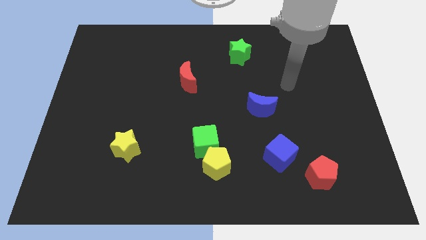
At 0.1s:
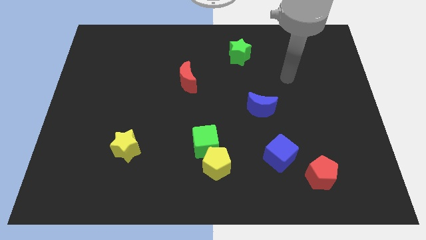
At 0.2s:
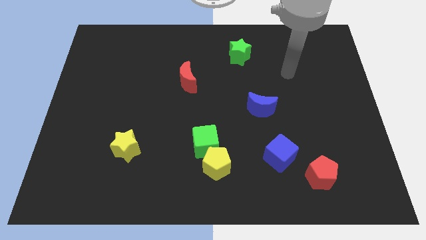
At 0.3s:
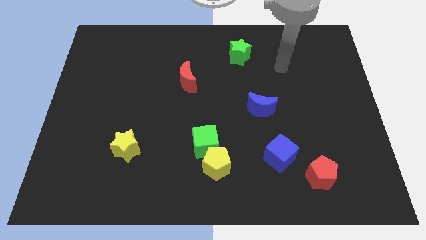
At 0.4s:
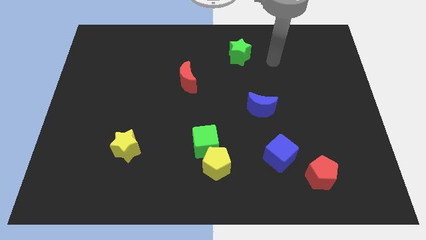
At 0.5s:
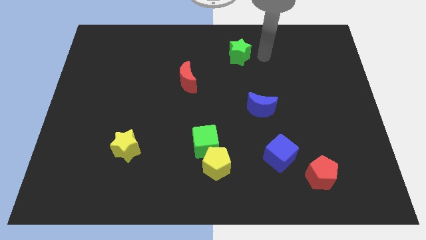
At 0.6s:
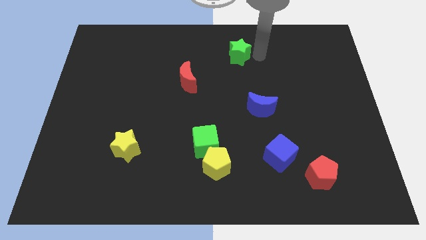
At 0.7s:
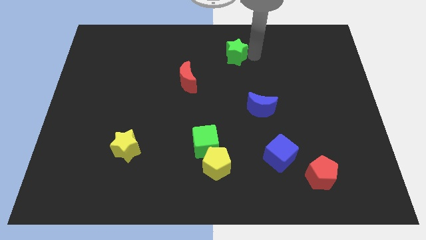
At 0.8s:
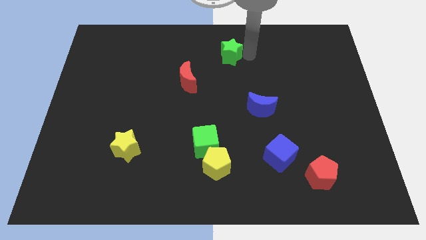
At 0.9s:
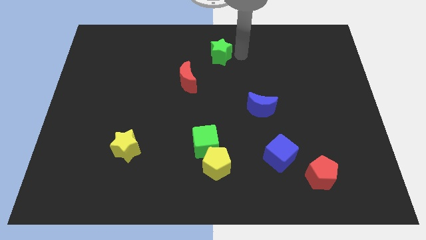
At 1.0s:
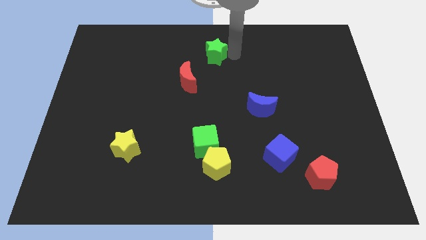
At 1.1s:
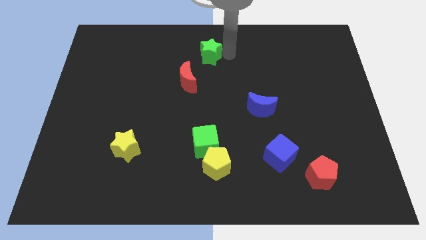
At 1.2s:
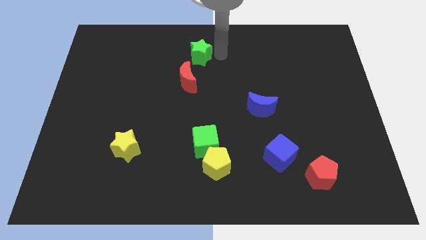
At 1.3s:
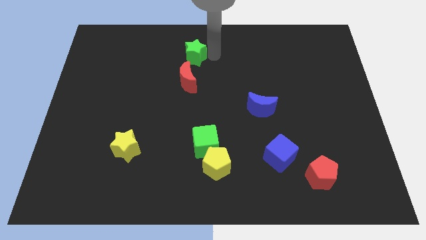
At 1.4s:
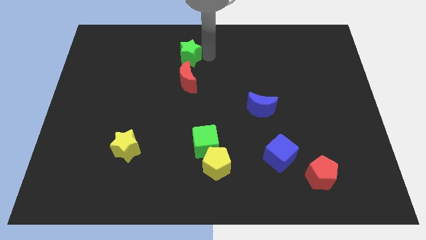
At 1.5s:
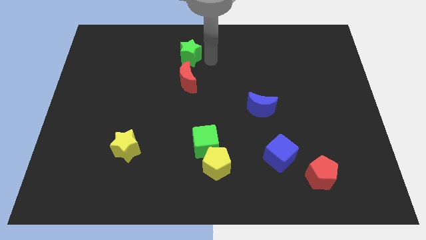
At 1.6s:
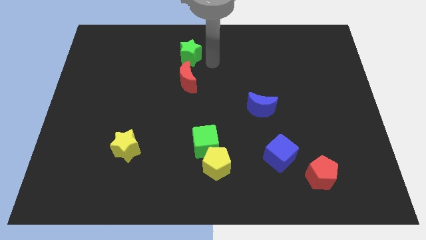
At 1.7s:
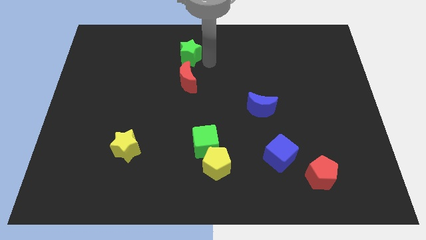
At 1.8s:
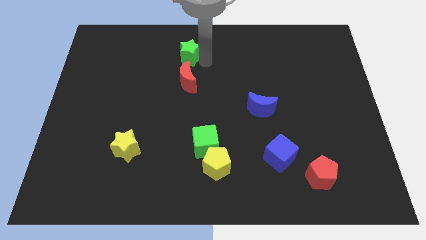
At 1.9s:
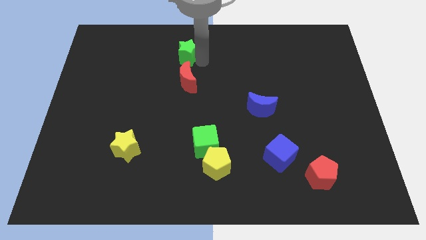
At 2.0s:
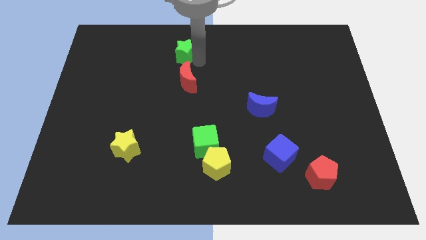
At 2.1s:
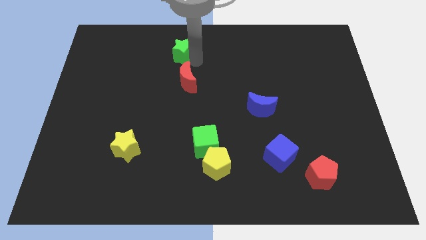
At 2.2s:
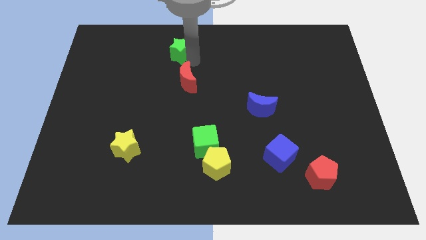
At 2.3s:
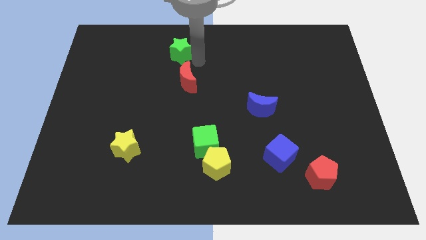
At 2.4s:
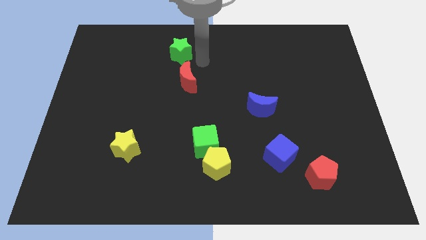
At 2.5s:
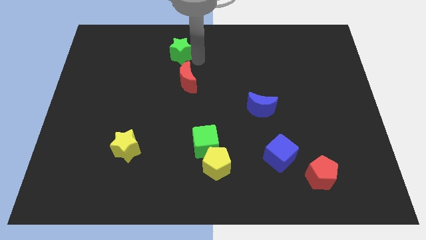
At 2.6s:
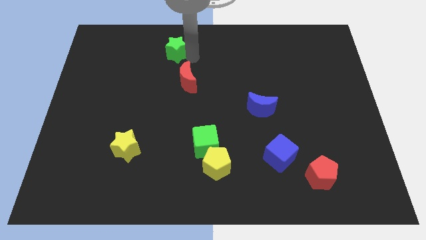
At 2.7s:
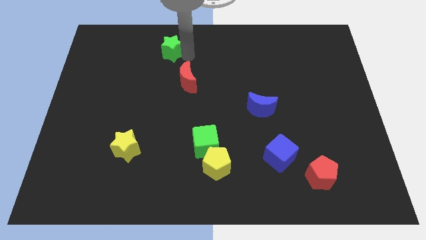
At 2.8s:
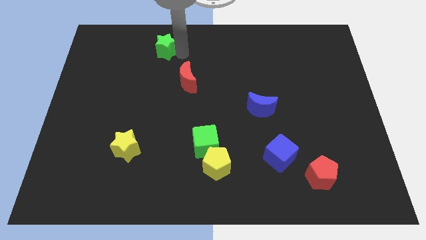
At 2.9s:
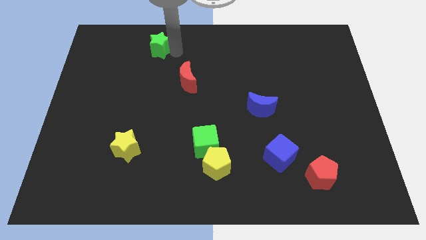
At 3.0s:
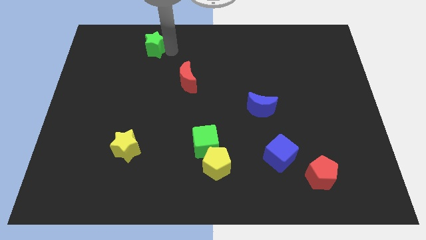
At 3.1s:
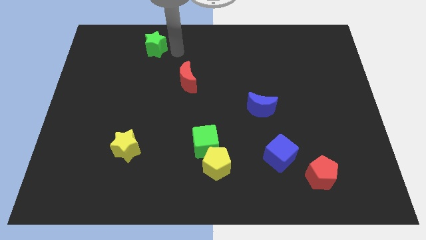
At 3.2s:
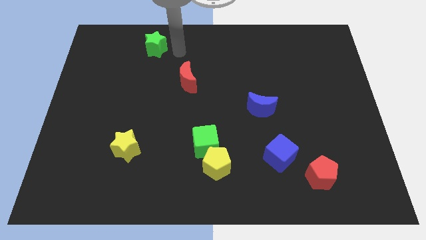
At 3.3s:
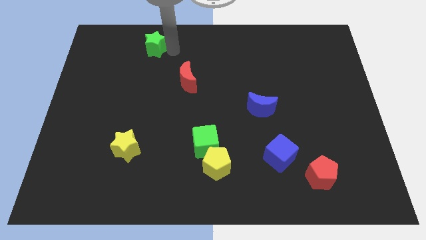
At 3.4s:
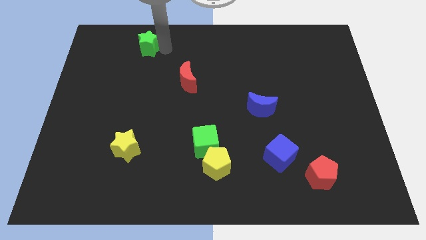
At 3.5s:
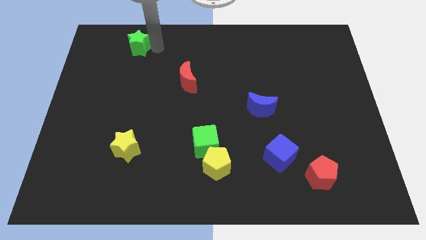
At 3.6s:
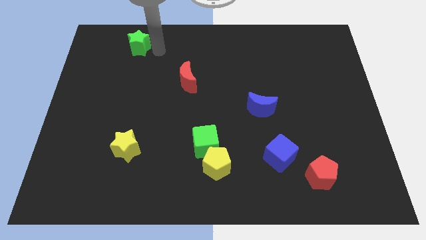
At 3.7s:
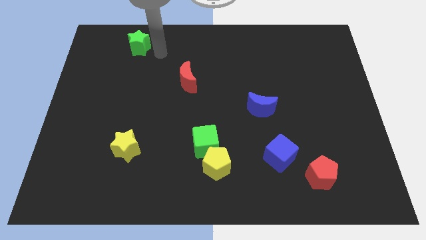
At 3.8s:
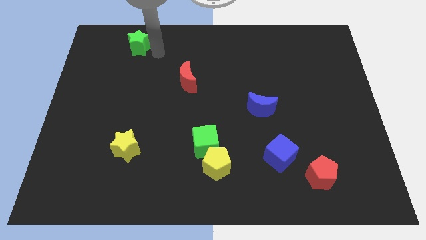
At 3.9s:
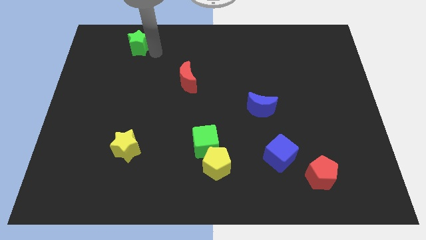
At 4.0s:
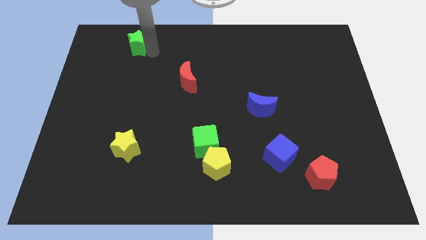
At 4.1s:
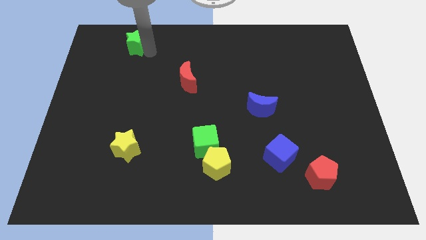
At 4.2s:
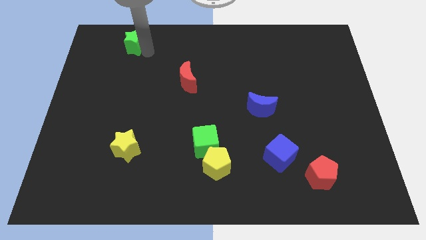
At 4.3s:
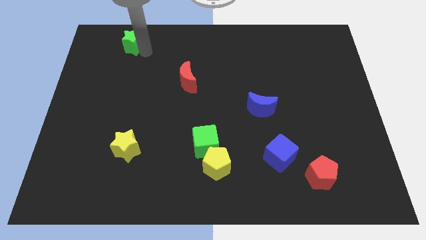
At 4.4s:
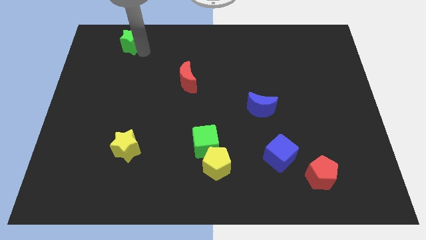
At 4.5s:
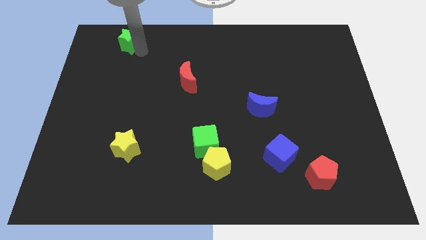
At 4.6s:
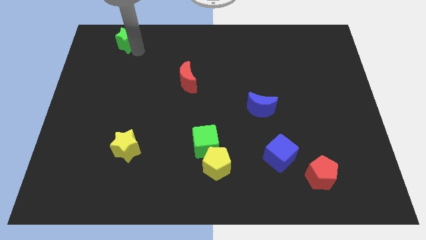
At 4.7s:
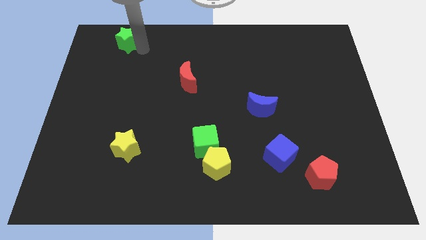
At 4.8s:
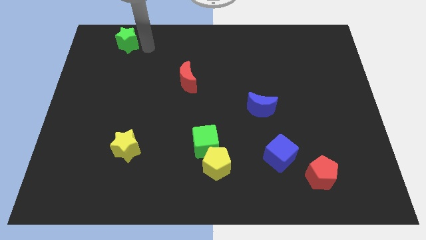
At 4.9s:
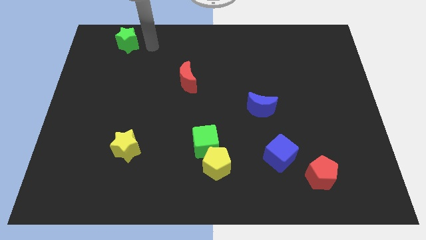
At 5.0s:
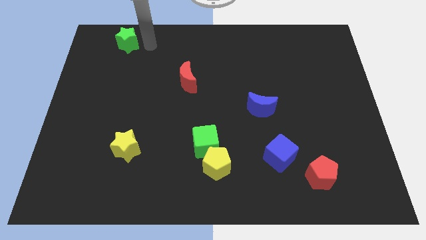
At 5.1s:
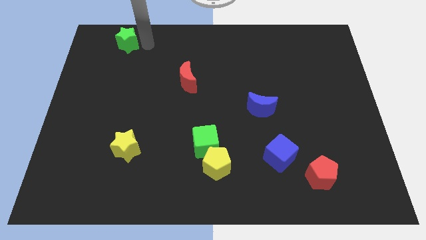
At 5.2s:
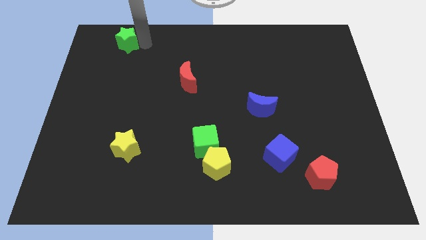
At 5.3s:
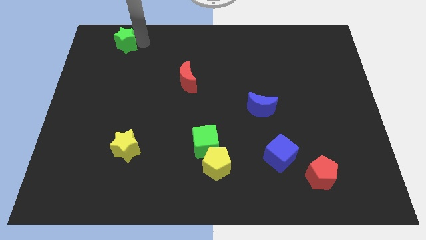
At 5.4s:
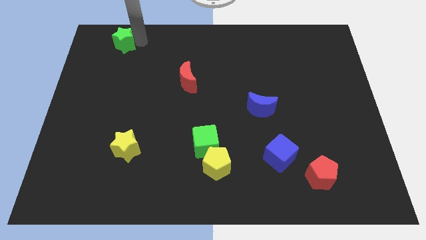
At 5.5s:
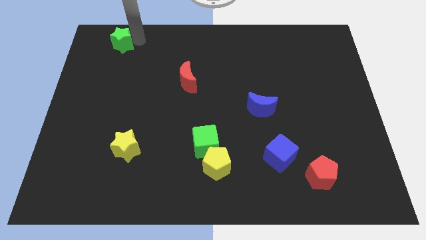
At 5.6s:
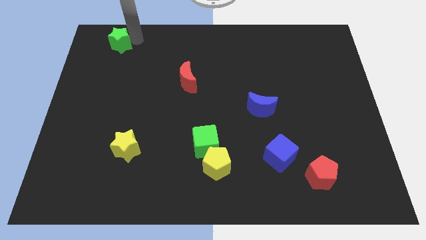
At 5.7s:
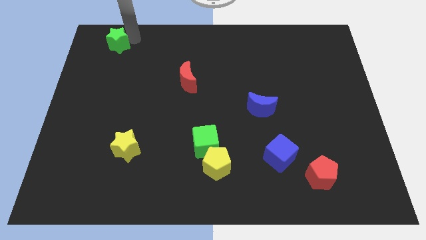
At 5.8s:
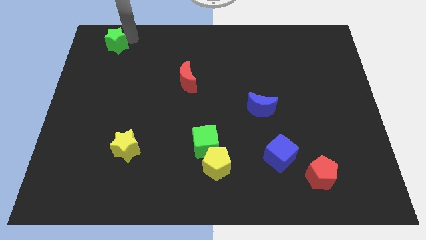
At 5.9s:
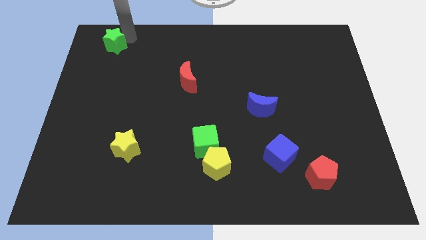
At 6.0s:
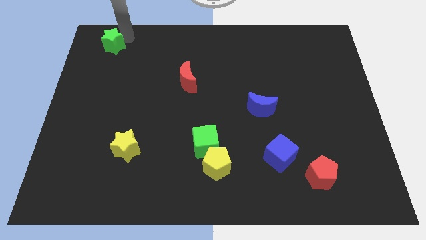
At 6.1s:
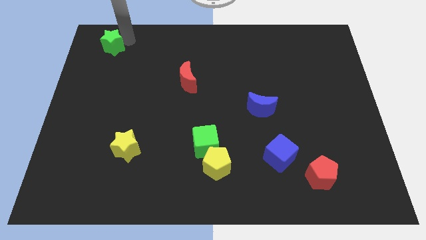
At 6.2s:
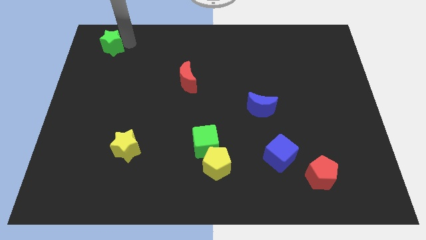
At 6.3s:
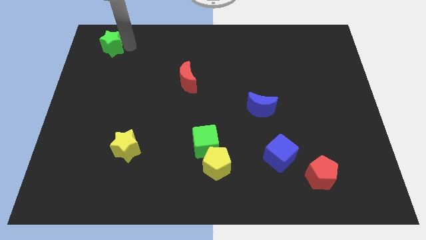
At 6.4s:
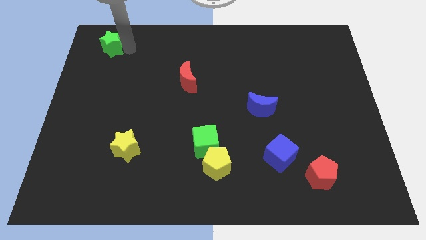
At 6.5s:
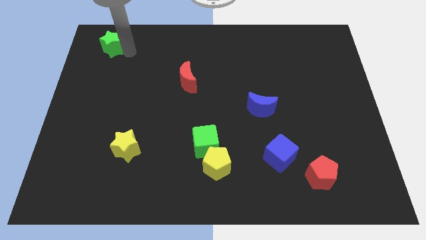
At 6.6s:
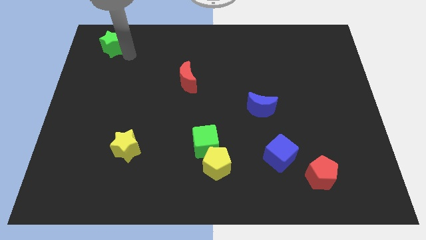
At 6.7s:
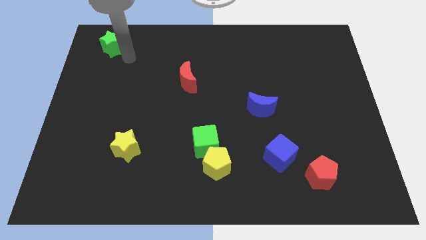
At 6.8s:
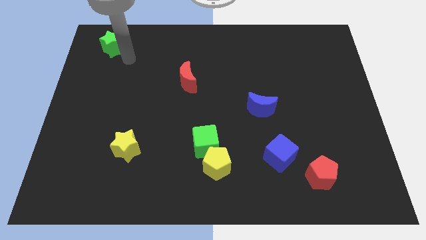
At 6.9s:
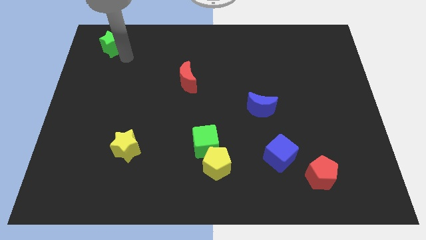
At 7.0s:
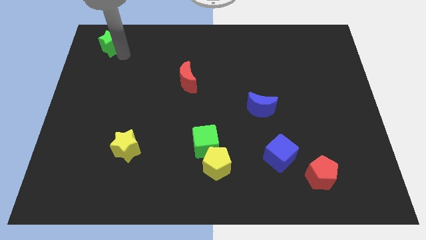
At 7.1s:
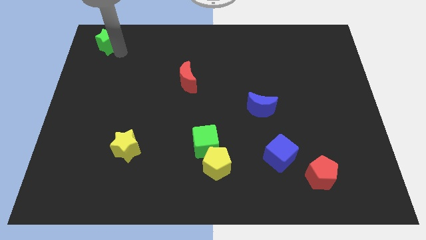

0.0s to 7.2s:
push the green star to the top left of the board
